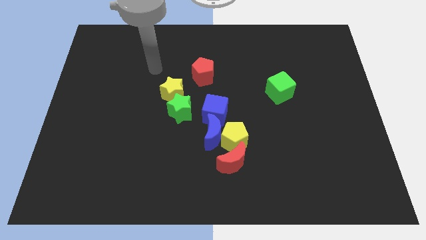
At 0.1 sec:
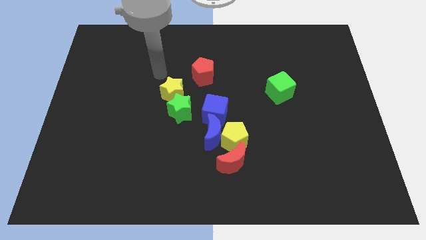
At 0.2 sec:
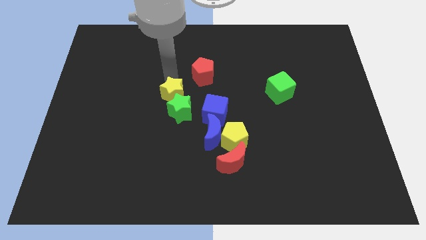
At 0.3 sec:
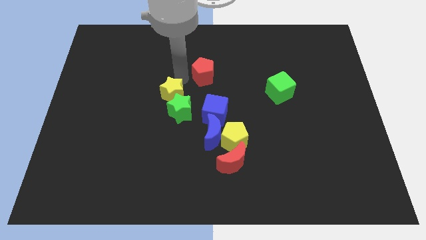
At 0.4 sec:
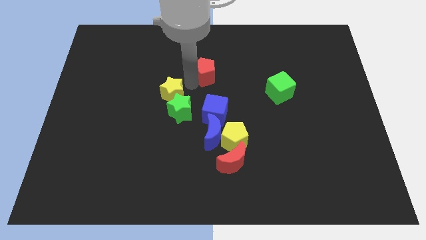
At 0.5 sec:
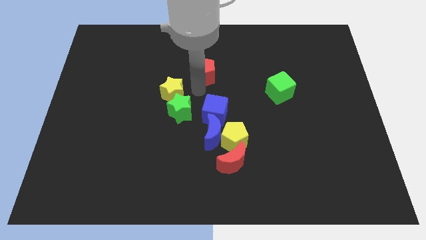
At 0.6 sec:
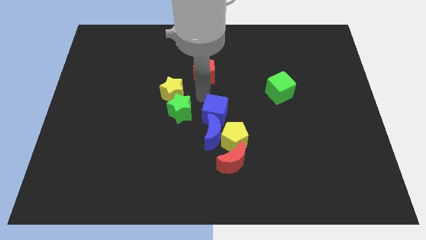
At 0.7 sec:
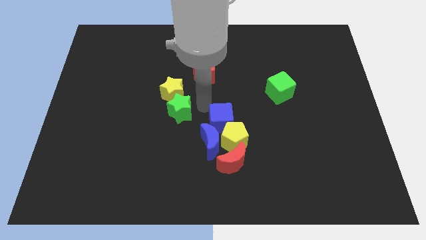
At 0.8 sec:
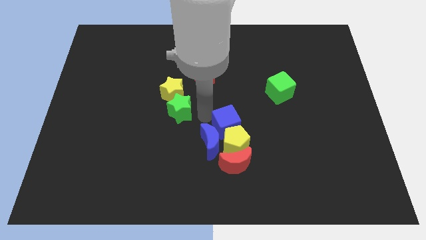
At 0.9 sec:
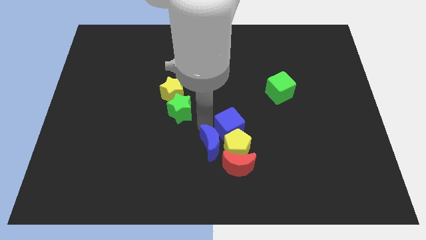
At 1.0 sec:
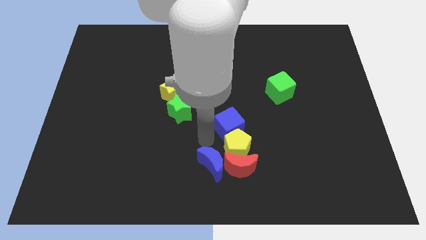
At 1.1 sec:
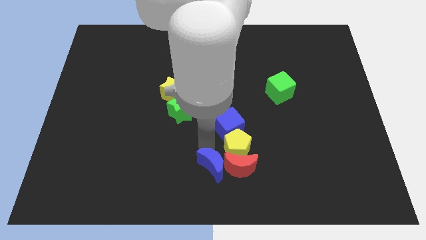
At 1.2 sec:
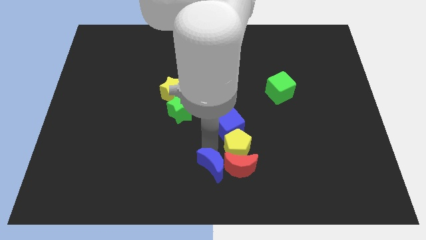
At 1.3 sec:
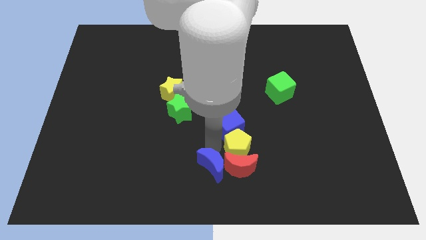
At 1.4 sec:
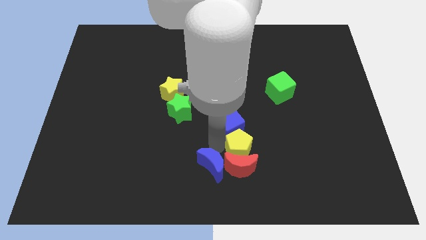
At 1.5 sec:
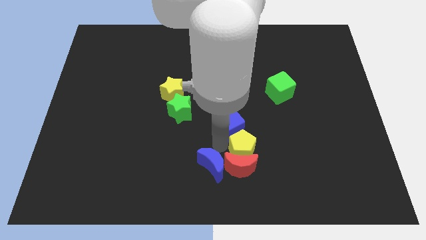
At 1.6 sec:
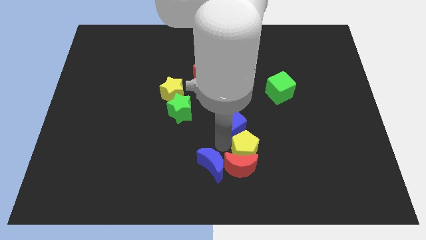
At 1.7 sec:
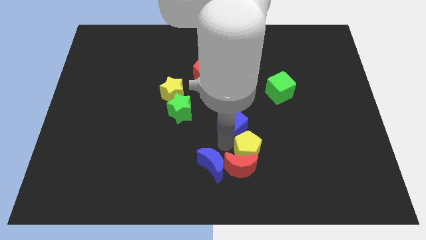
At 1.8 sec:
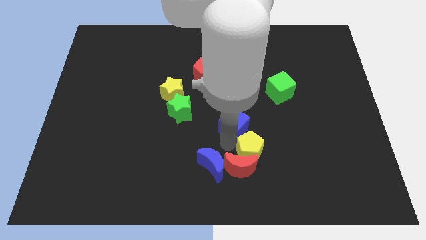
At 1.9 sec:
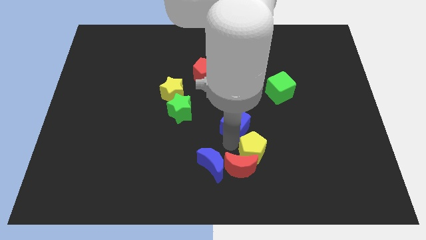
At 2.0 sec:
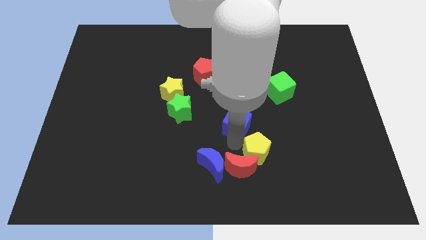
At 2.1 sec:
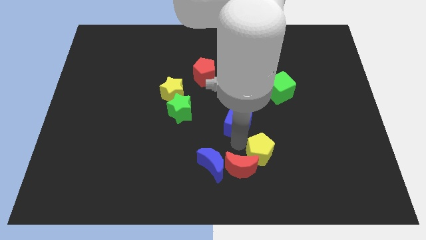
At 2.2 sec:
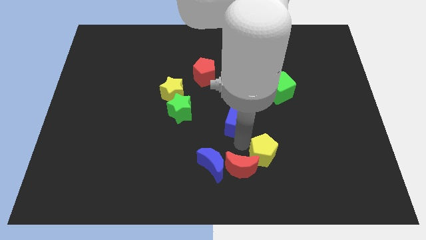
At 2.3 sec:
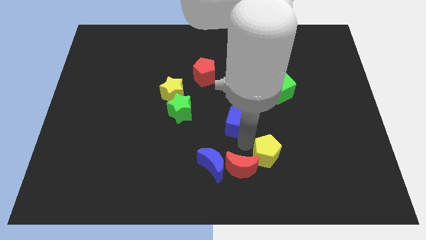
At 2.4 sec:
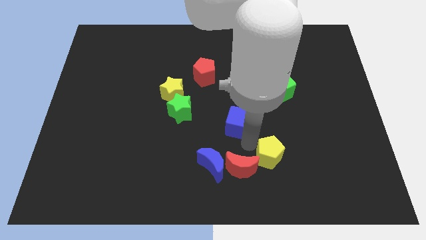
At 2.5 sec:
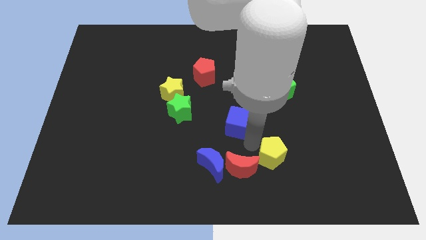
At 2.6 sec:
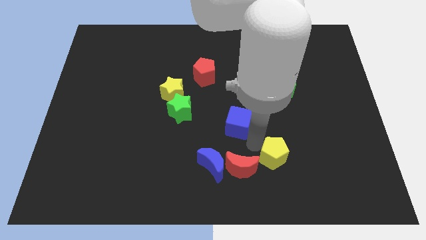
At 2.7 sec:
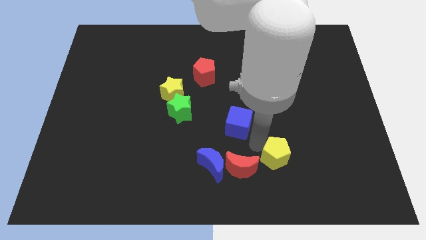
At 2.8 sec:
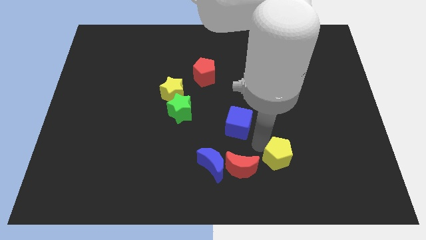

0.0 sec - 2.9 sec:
move the yellow pentagon away from the clump

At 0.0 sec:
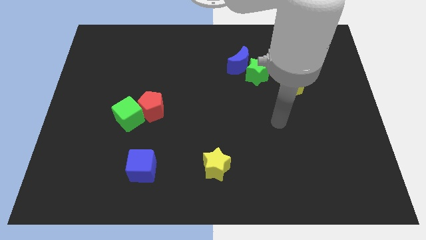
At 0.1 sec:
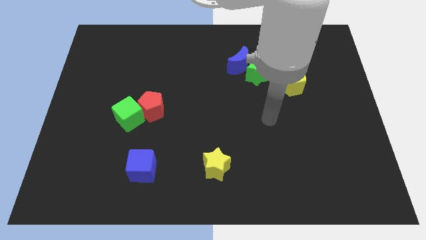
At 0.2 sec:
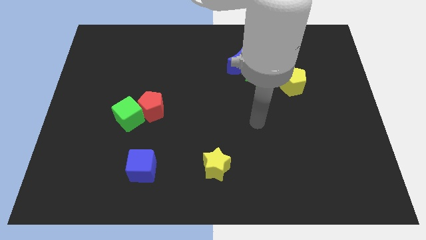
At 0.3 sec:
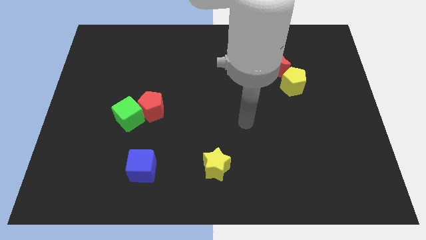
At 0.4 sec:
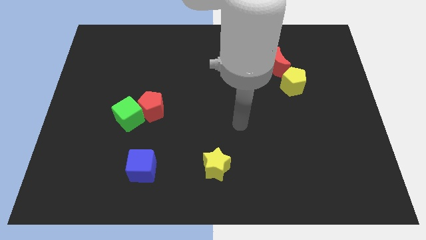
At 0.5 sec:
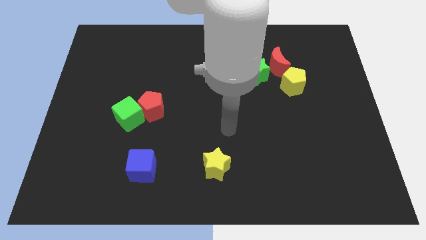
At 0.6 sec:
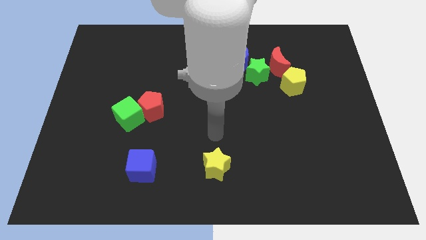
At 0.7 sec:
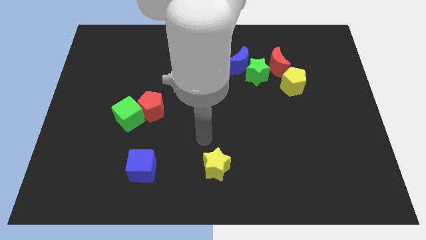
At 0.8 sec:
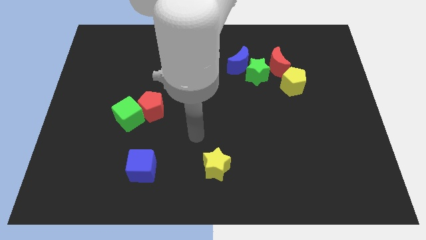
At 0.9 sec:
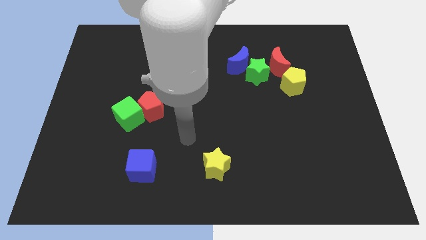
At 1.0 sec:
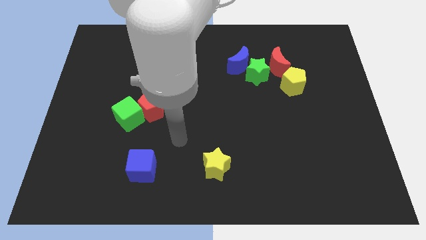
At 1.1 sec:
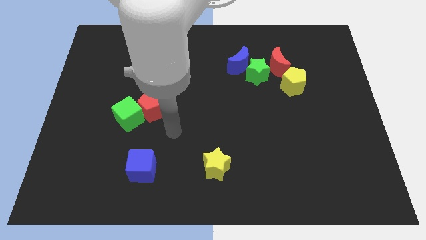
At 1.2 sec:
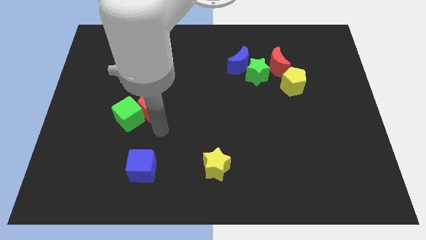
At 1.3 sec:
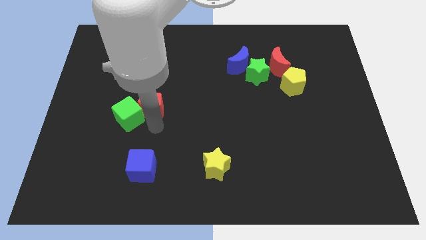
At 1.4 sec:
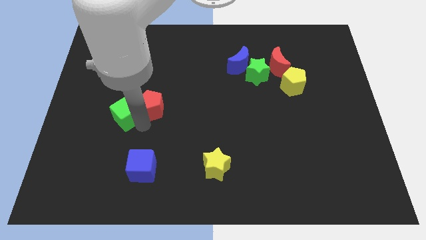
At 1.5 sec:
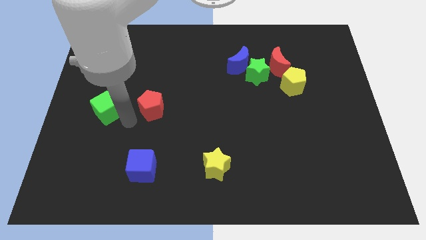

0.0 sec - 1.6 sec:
move the red pentagon away from the green cube

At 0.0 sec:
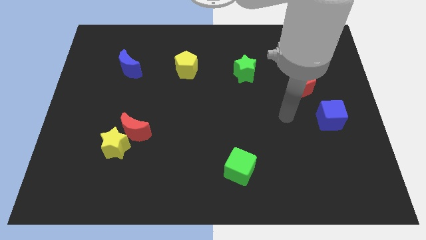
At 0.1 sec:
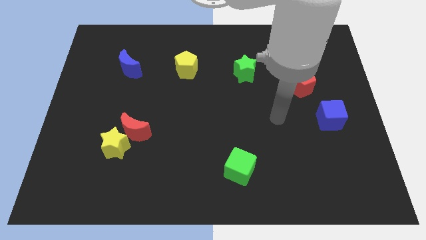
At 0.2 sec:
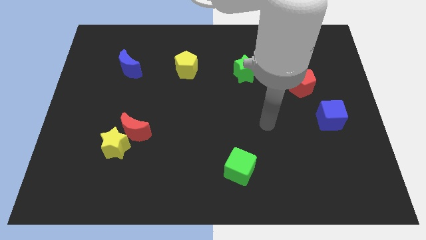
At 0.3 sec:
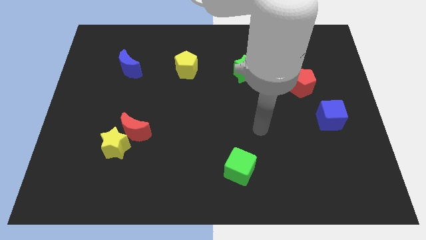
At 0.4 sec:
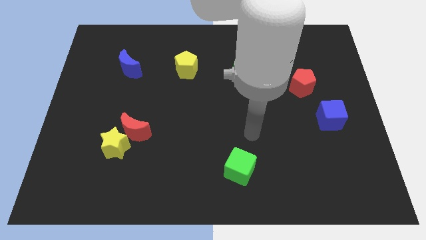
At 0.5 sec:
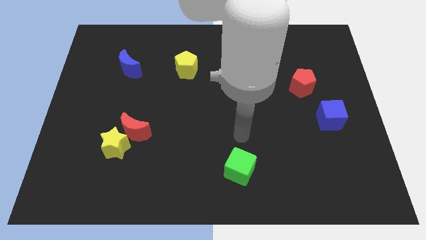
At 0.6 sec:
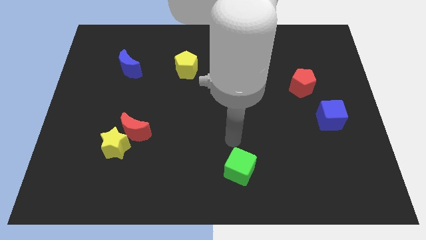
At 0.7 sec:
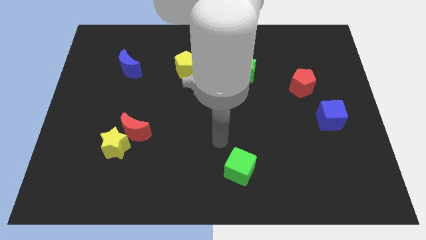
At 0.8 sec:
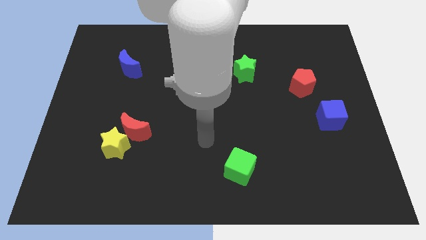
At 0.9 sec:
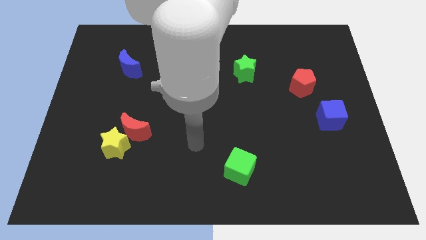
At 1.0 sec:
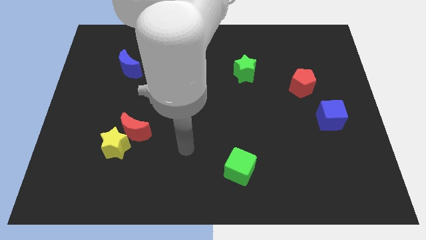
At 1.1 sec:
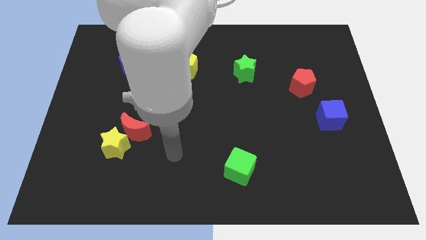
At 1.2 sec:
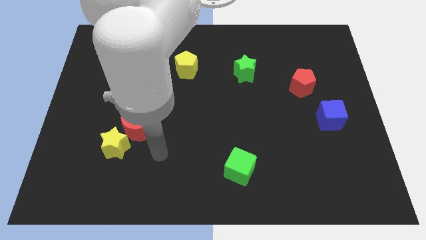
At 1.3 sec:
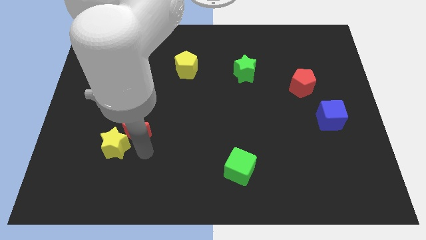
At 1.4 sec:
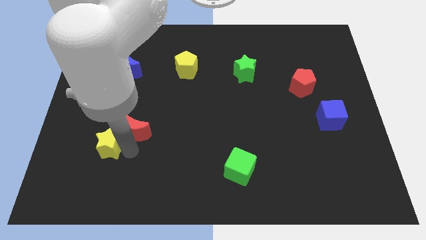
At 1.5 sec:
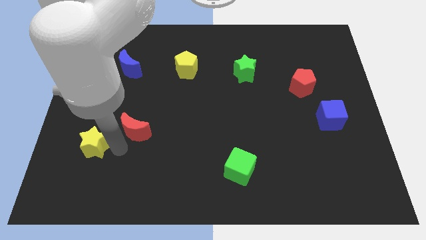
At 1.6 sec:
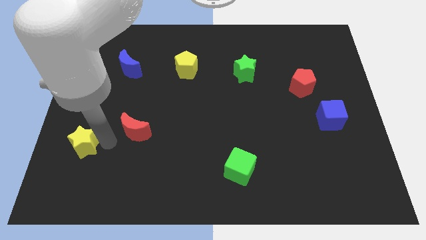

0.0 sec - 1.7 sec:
pull the red moon apart from the yellow star

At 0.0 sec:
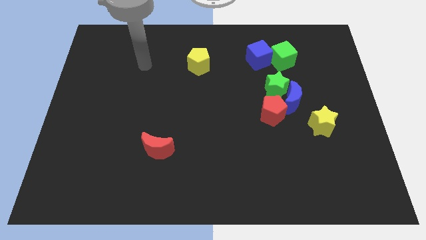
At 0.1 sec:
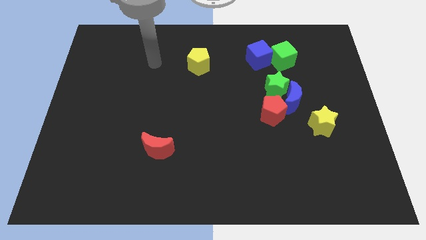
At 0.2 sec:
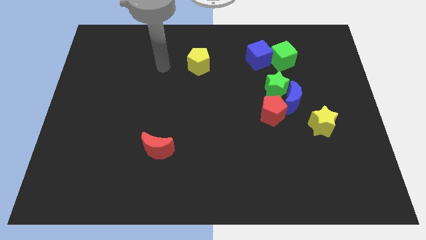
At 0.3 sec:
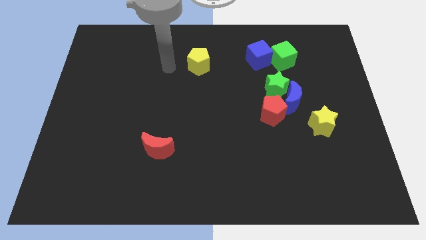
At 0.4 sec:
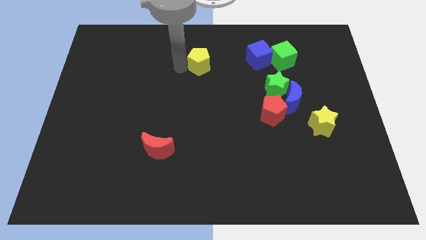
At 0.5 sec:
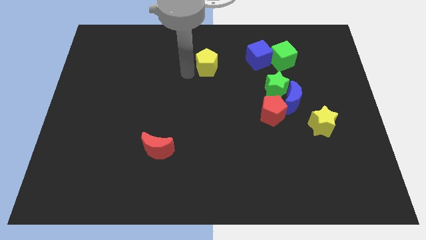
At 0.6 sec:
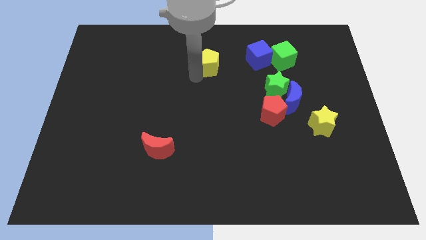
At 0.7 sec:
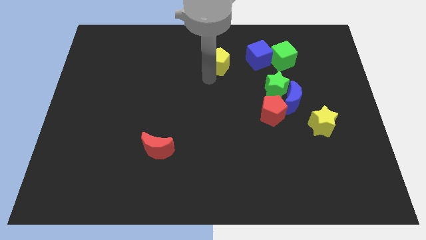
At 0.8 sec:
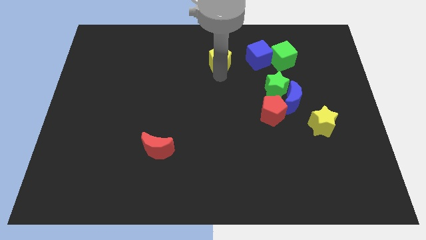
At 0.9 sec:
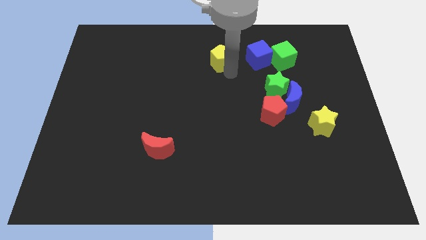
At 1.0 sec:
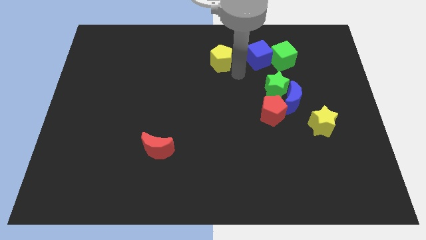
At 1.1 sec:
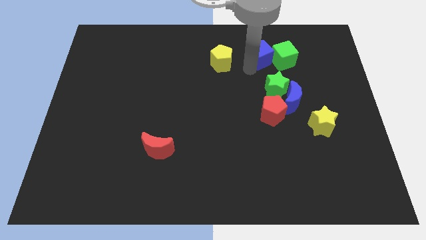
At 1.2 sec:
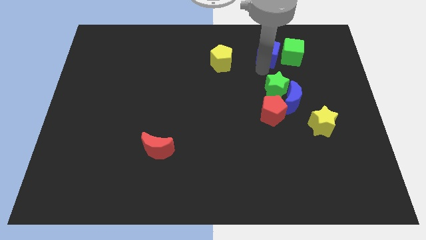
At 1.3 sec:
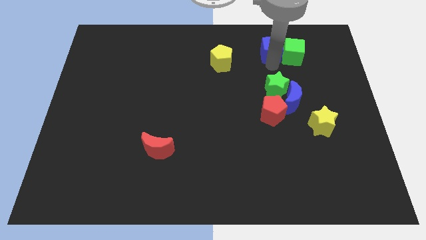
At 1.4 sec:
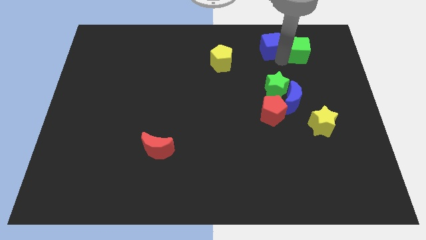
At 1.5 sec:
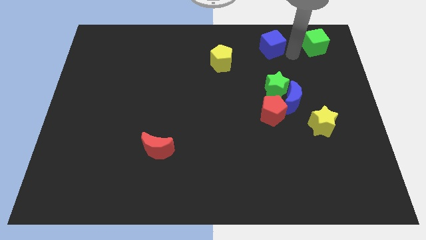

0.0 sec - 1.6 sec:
separate the blue cube from the green cube

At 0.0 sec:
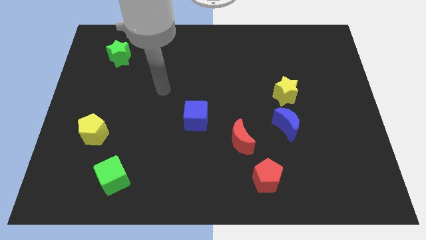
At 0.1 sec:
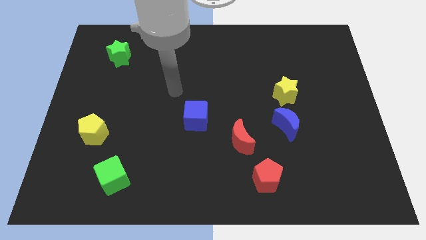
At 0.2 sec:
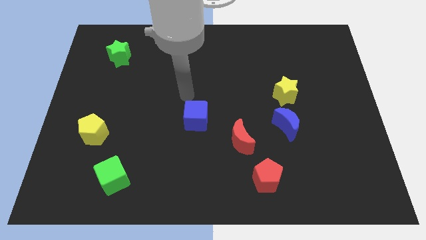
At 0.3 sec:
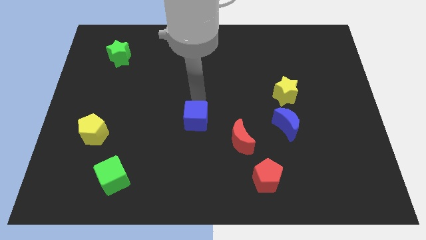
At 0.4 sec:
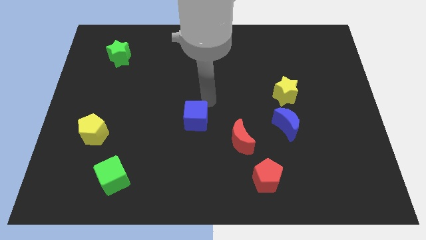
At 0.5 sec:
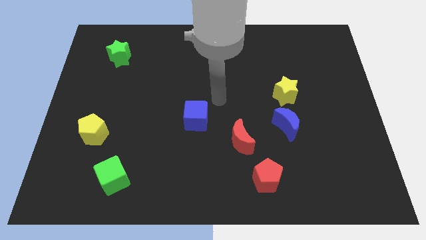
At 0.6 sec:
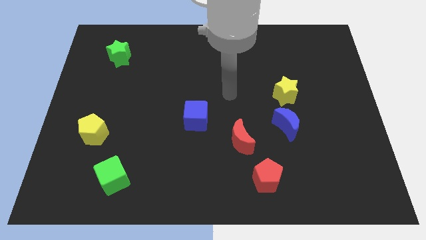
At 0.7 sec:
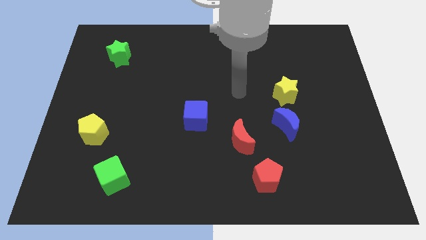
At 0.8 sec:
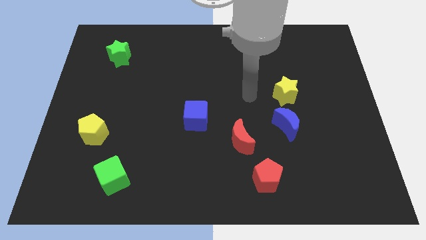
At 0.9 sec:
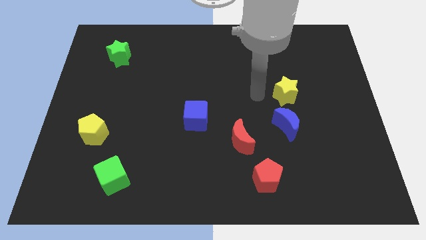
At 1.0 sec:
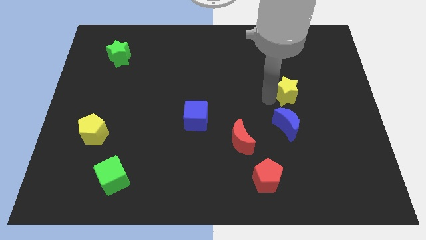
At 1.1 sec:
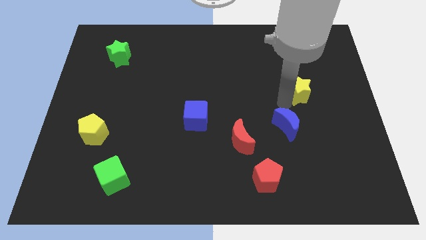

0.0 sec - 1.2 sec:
move the blue moon away from the yellow star

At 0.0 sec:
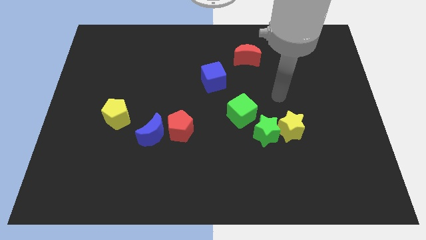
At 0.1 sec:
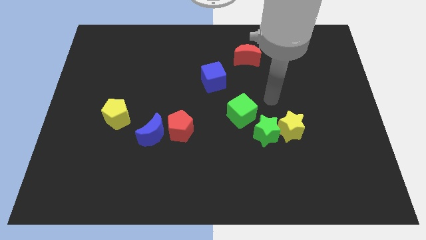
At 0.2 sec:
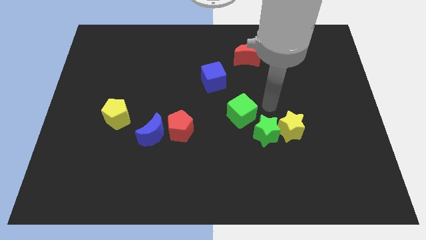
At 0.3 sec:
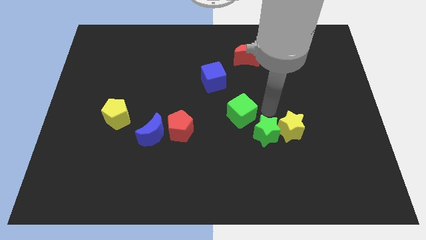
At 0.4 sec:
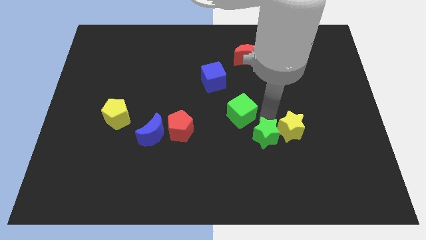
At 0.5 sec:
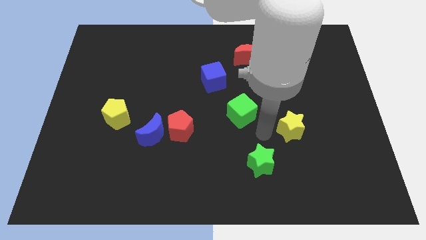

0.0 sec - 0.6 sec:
move the yellow star away from the green star
